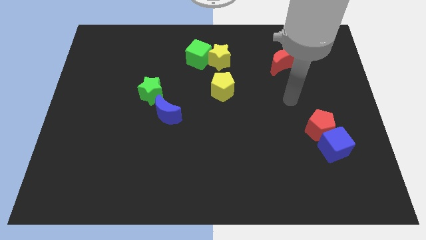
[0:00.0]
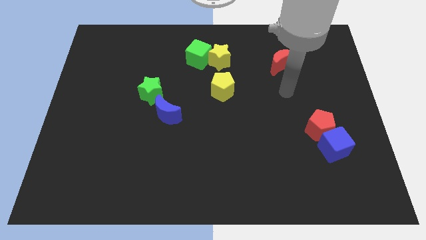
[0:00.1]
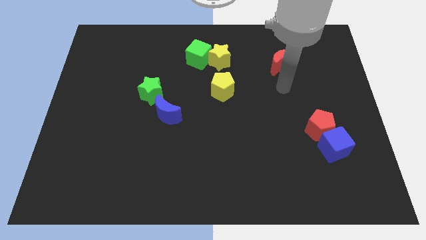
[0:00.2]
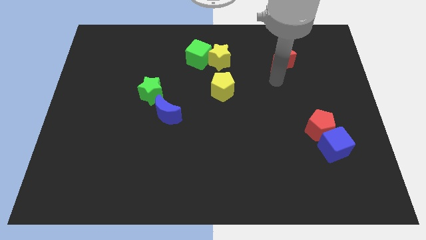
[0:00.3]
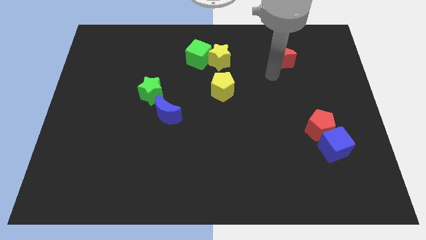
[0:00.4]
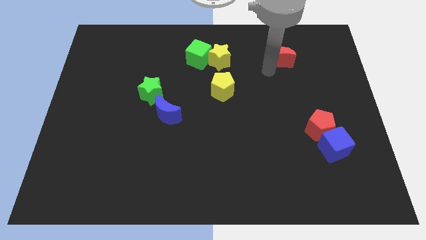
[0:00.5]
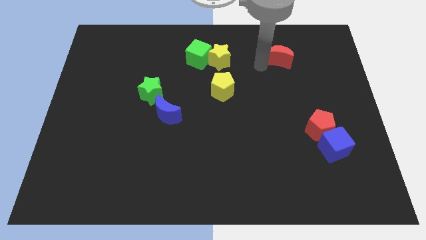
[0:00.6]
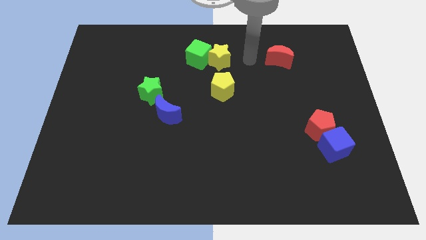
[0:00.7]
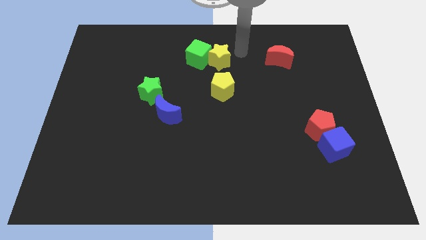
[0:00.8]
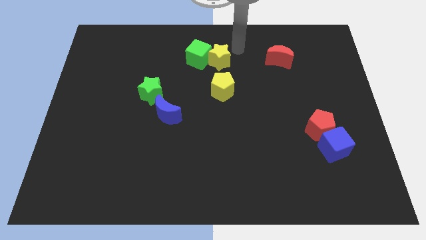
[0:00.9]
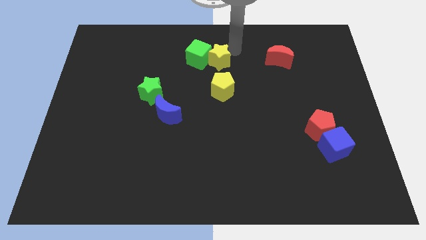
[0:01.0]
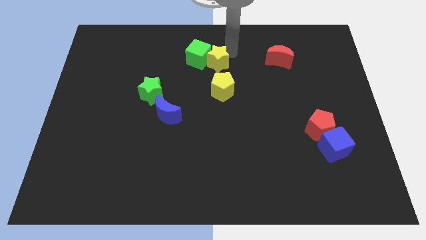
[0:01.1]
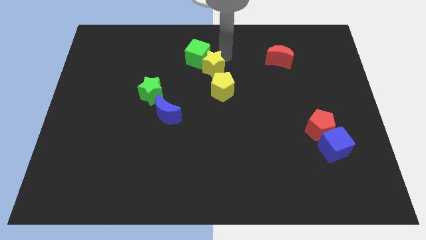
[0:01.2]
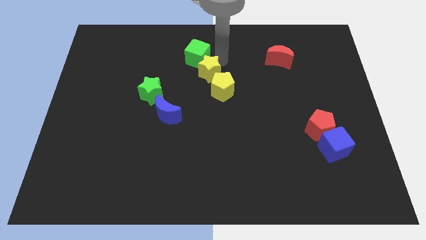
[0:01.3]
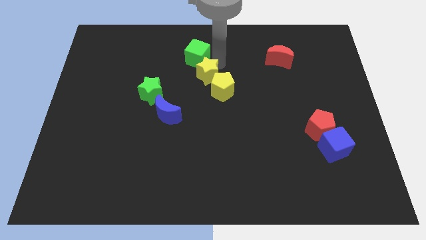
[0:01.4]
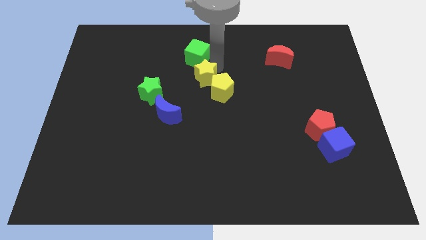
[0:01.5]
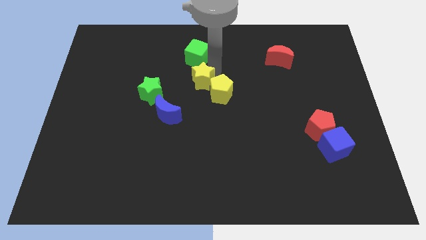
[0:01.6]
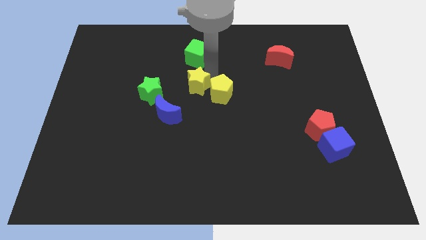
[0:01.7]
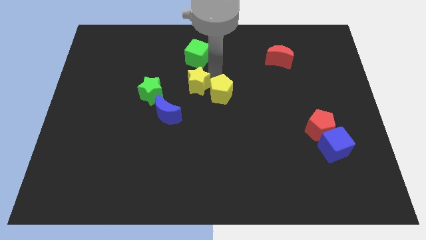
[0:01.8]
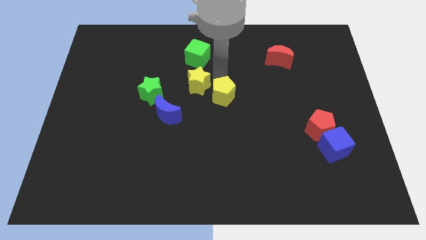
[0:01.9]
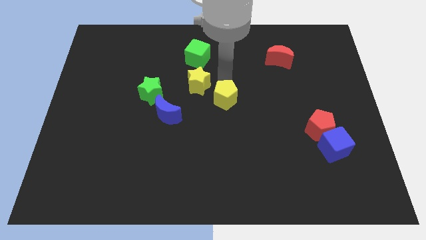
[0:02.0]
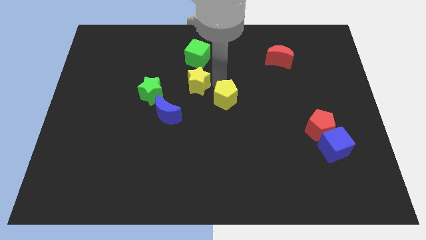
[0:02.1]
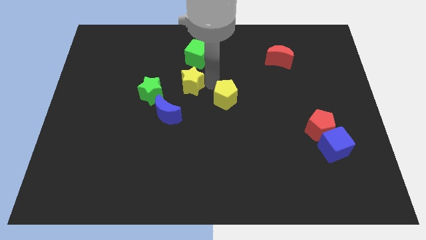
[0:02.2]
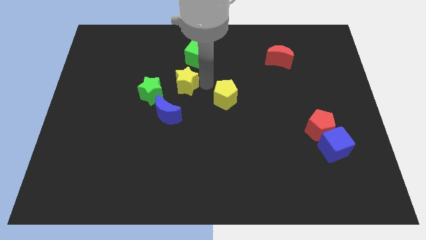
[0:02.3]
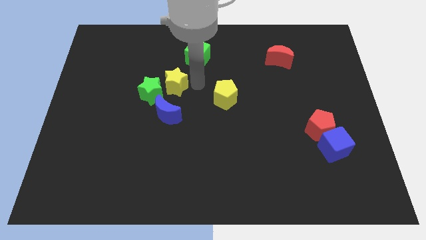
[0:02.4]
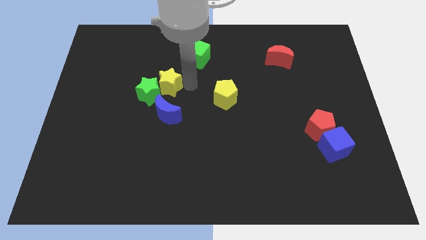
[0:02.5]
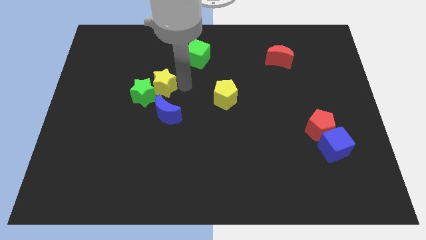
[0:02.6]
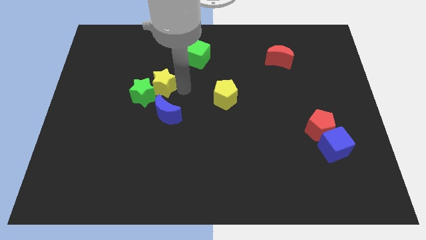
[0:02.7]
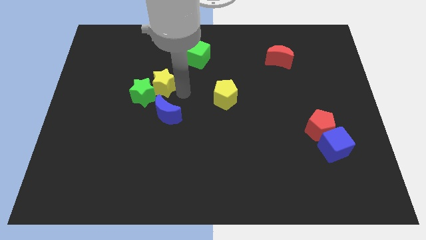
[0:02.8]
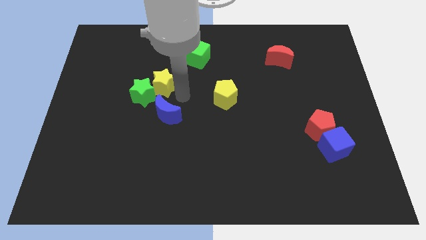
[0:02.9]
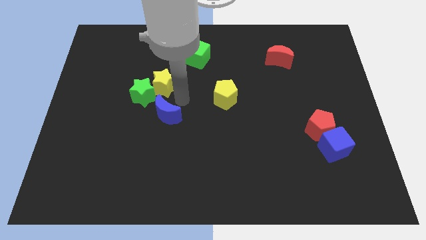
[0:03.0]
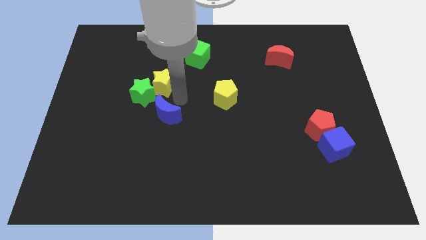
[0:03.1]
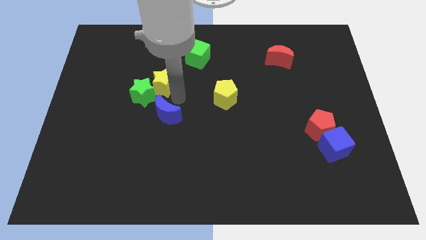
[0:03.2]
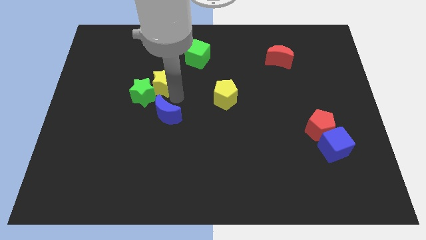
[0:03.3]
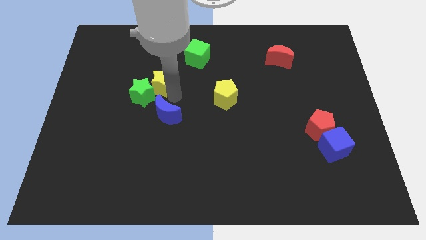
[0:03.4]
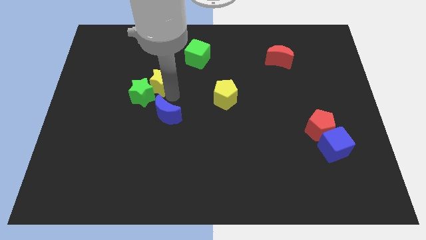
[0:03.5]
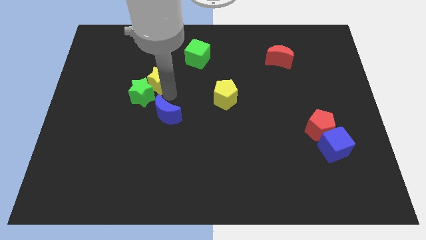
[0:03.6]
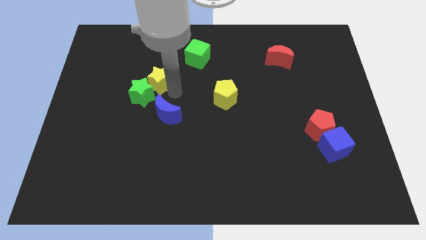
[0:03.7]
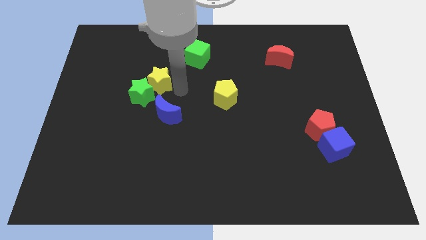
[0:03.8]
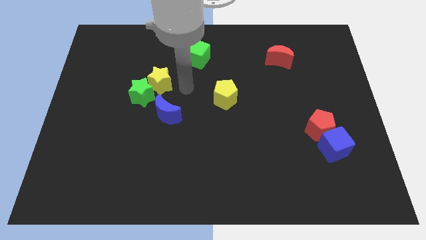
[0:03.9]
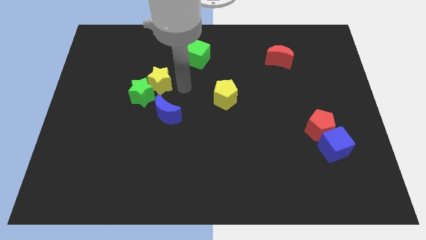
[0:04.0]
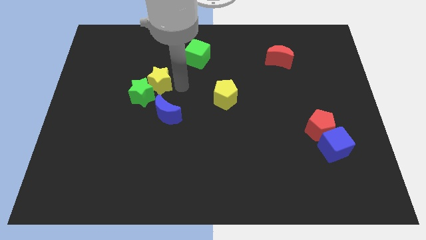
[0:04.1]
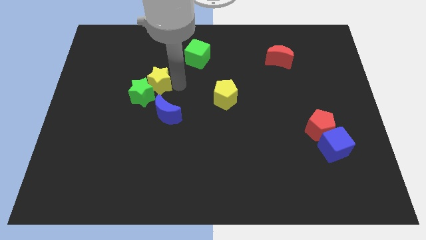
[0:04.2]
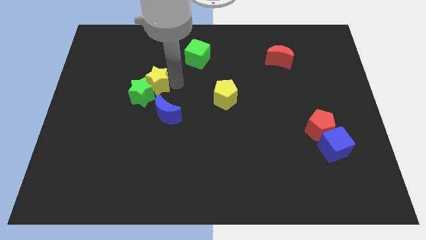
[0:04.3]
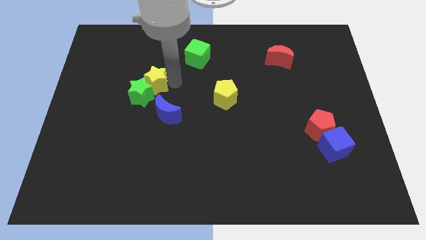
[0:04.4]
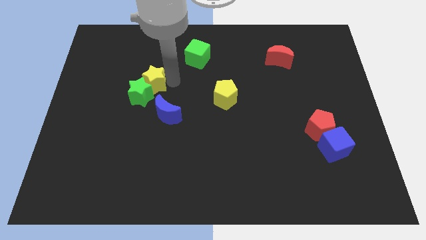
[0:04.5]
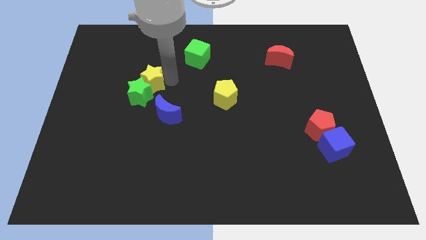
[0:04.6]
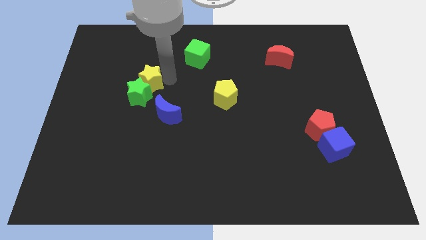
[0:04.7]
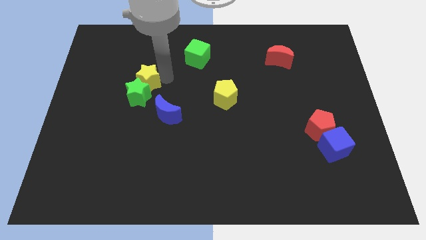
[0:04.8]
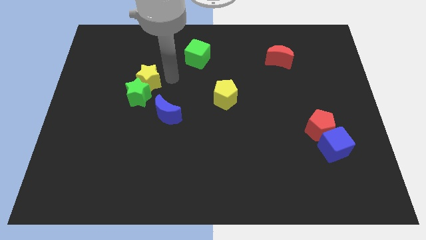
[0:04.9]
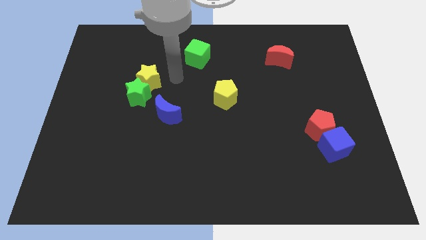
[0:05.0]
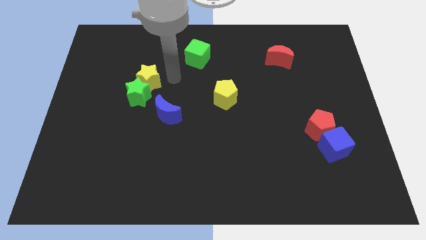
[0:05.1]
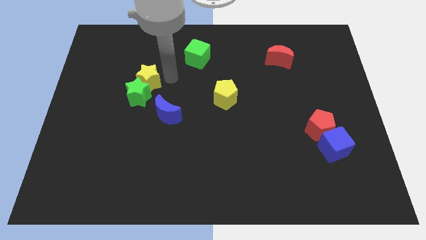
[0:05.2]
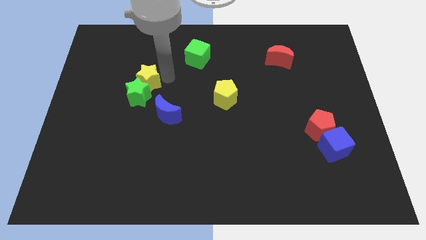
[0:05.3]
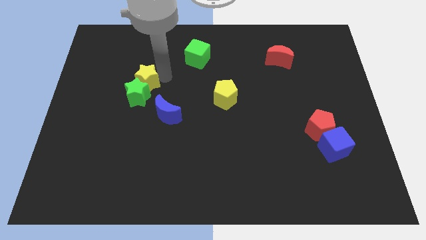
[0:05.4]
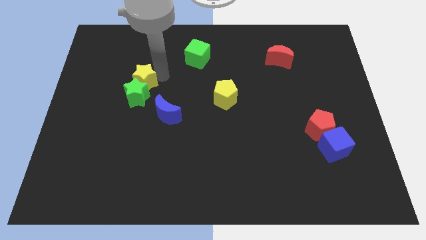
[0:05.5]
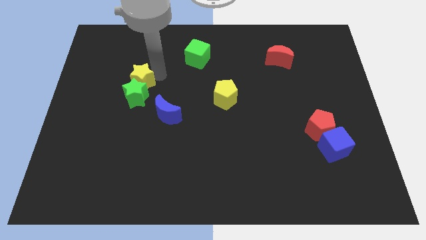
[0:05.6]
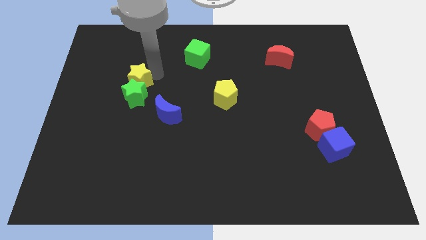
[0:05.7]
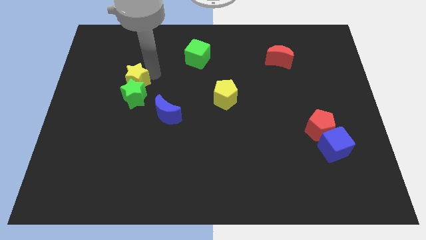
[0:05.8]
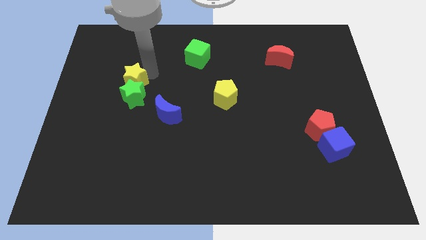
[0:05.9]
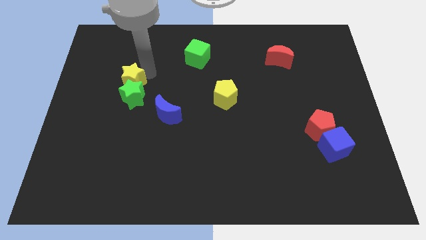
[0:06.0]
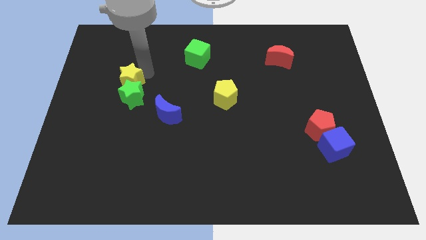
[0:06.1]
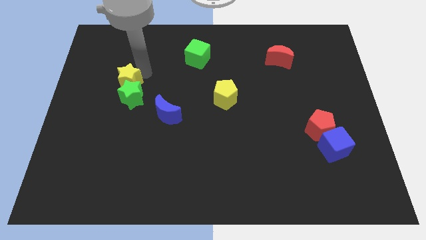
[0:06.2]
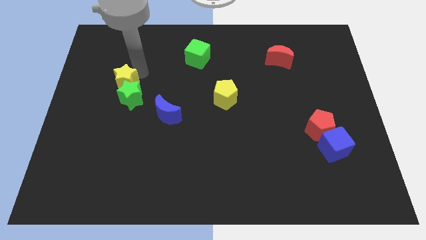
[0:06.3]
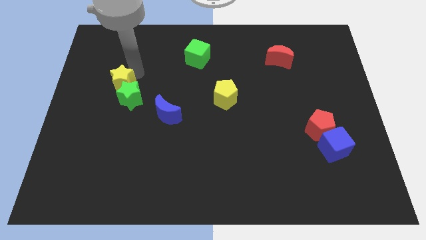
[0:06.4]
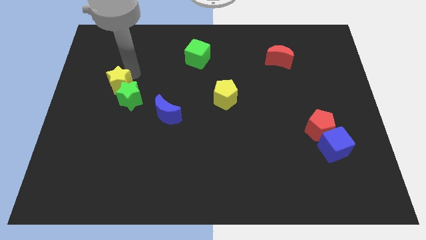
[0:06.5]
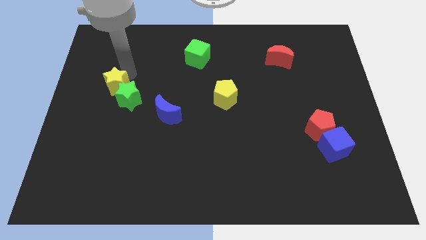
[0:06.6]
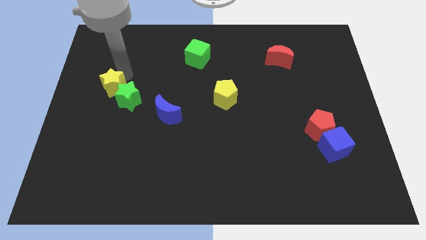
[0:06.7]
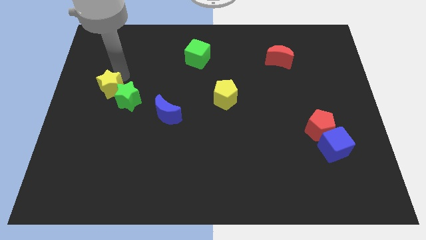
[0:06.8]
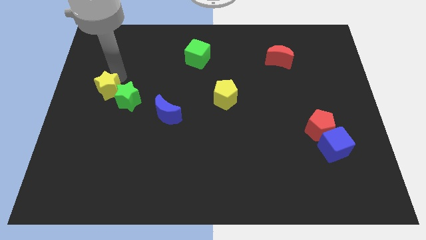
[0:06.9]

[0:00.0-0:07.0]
put the yellow star to the center left
